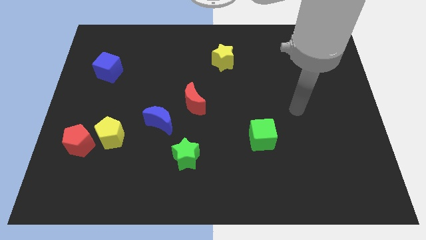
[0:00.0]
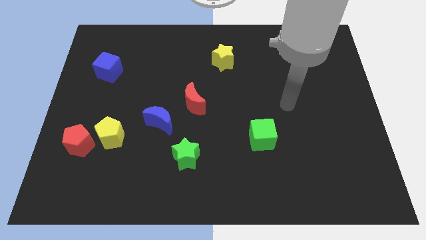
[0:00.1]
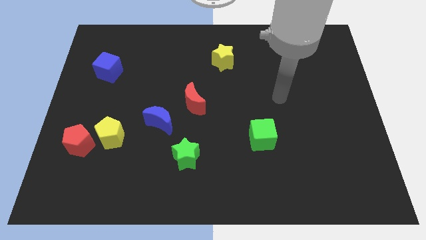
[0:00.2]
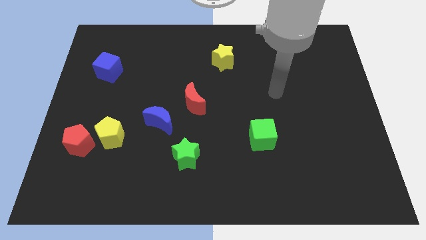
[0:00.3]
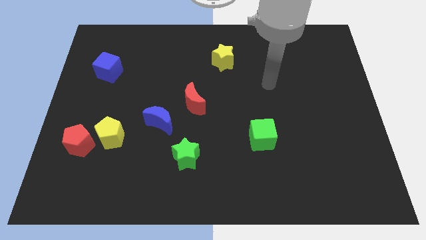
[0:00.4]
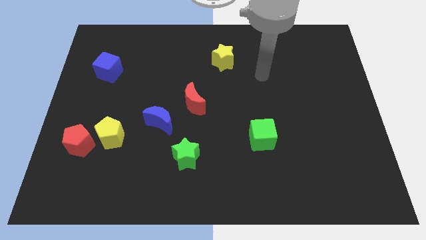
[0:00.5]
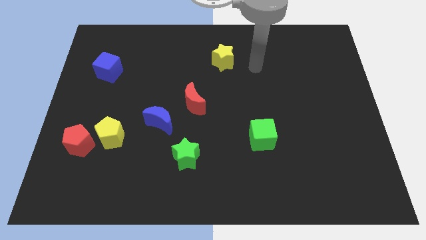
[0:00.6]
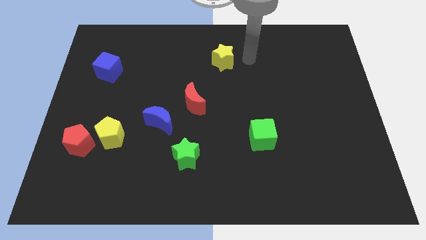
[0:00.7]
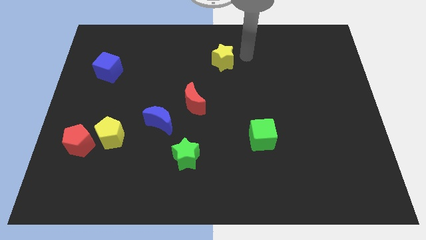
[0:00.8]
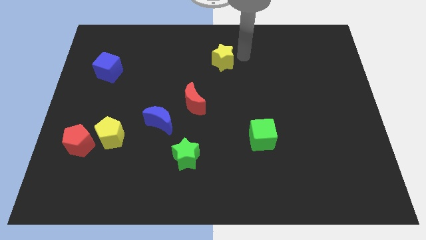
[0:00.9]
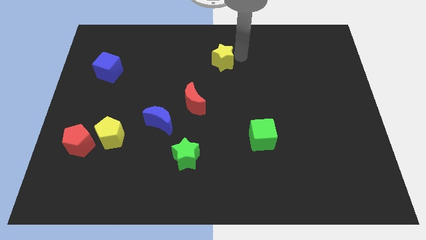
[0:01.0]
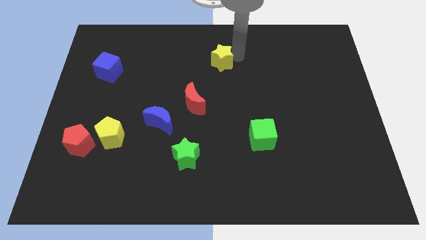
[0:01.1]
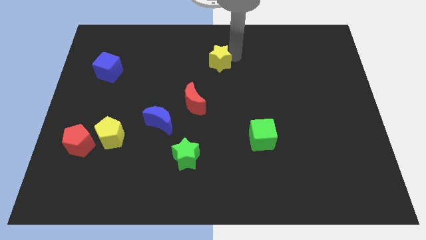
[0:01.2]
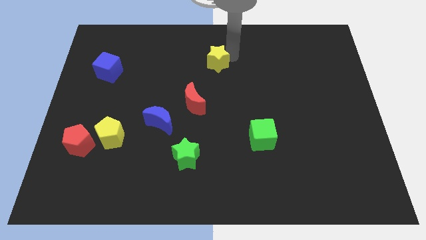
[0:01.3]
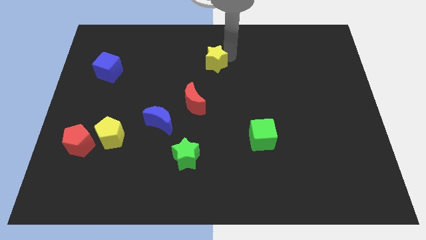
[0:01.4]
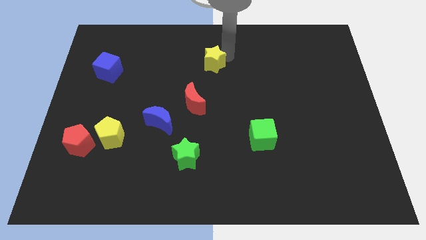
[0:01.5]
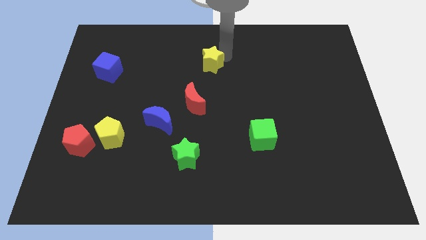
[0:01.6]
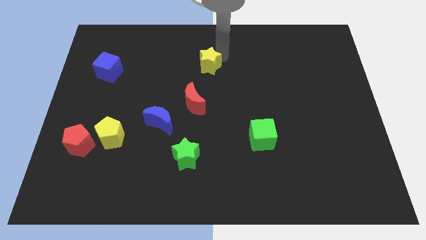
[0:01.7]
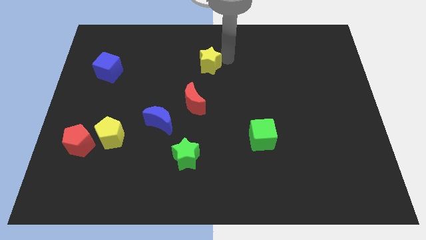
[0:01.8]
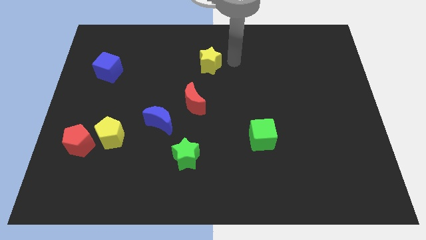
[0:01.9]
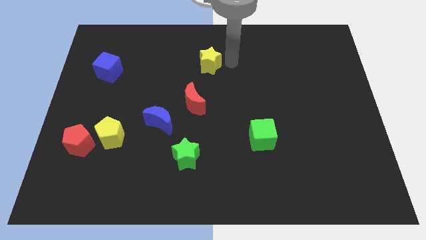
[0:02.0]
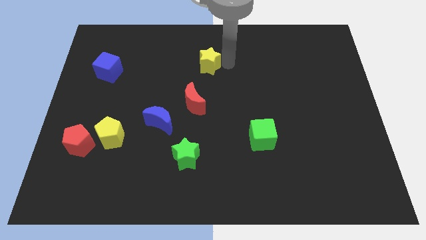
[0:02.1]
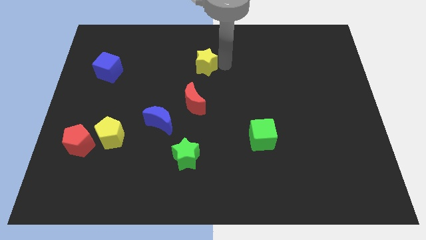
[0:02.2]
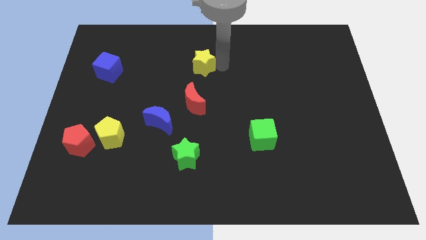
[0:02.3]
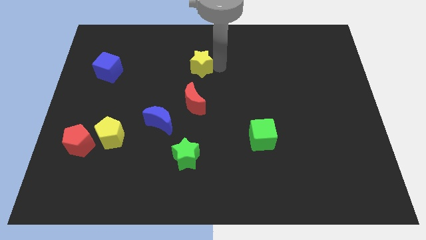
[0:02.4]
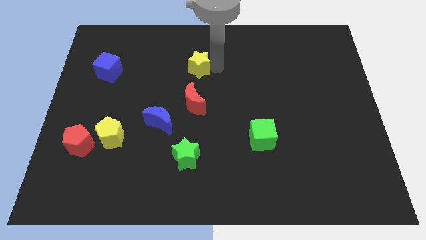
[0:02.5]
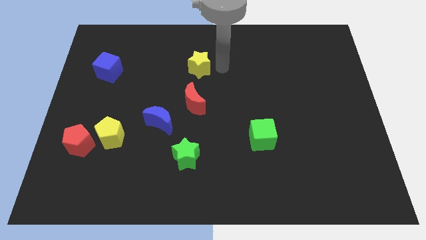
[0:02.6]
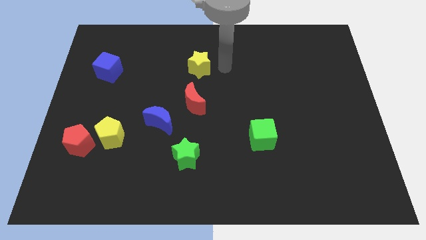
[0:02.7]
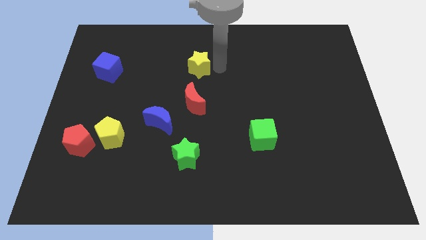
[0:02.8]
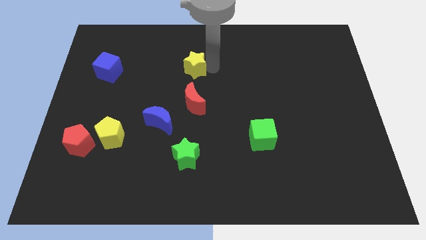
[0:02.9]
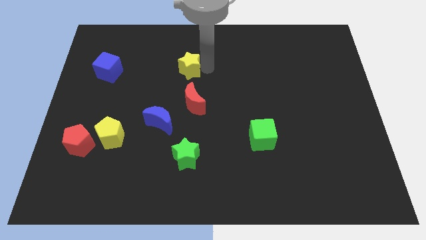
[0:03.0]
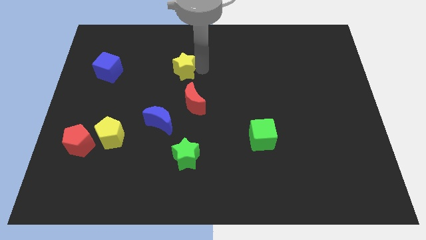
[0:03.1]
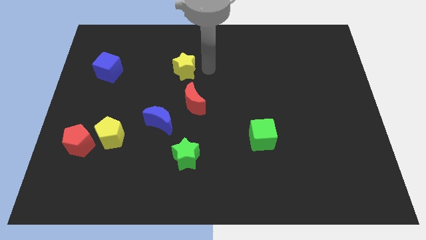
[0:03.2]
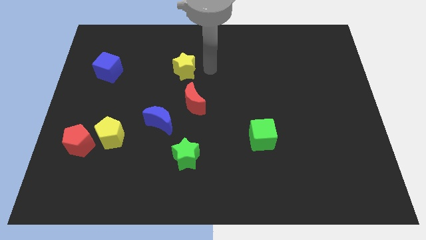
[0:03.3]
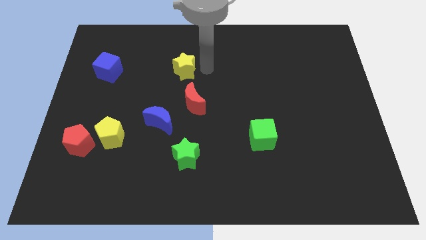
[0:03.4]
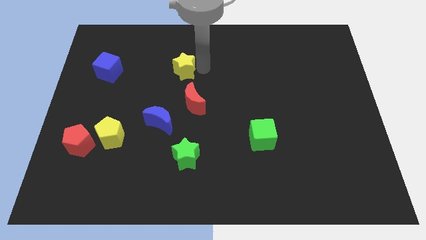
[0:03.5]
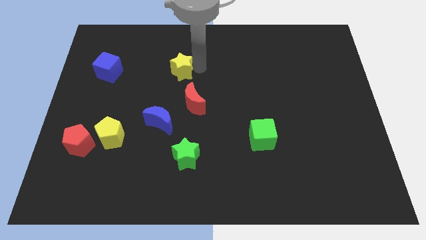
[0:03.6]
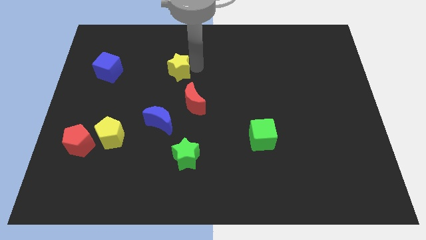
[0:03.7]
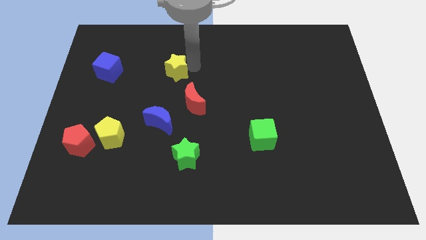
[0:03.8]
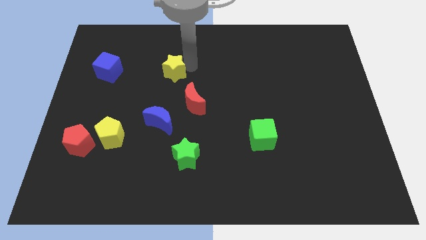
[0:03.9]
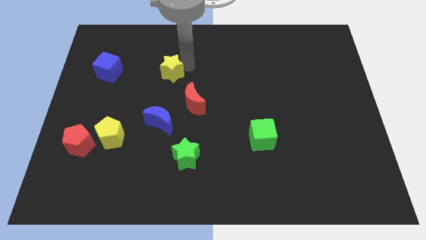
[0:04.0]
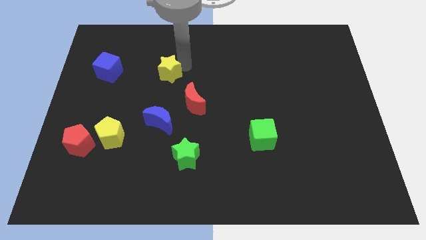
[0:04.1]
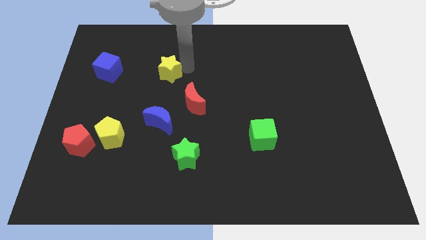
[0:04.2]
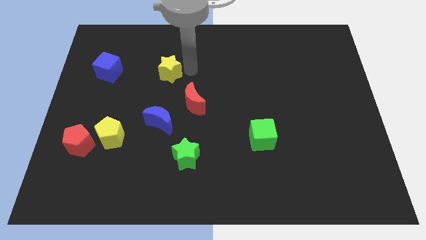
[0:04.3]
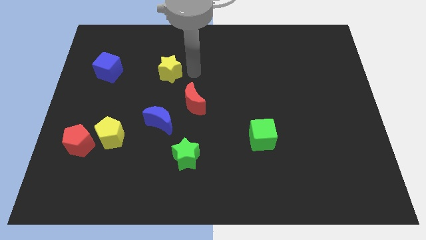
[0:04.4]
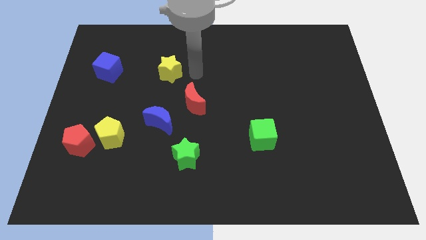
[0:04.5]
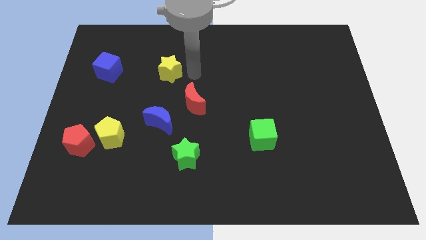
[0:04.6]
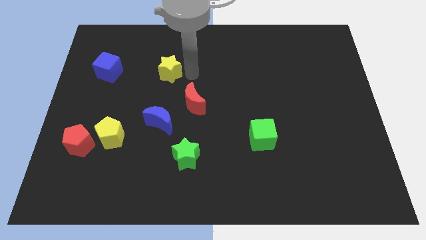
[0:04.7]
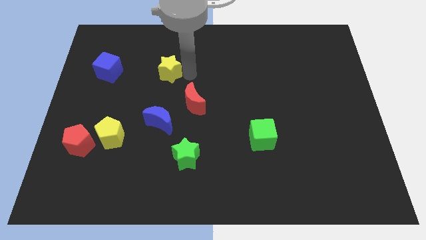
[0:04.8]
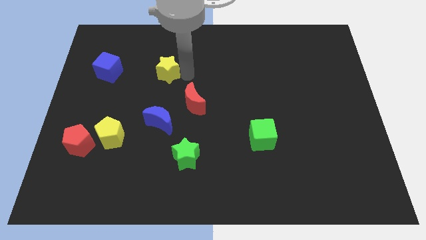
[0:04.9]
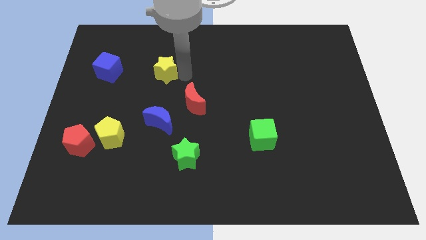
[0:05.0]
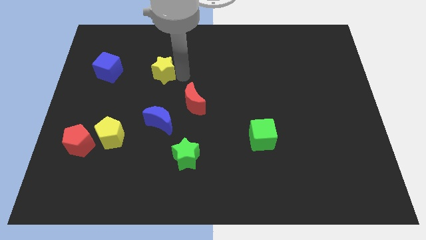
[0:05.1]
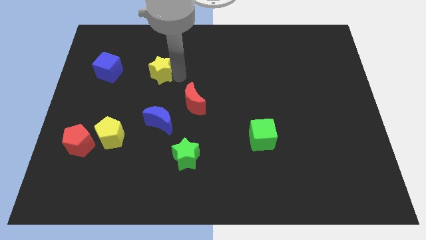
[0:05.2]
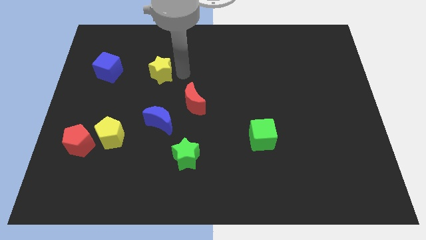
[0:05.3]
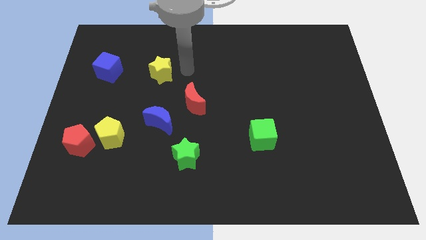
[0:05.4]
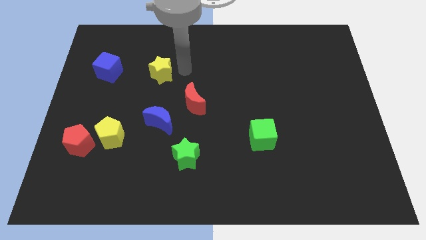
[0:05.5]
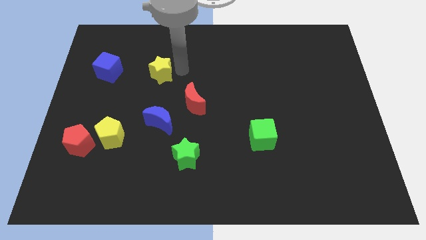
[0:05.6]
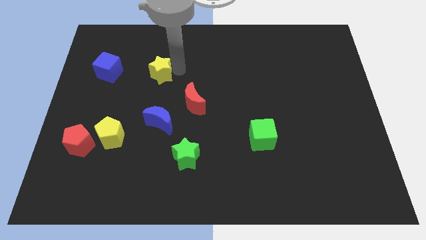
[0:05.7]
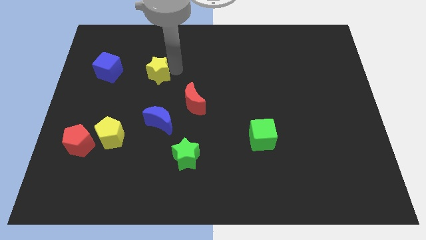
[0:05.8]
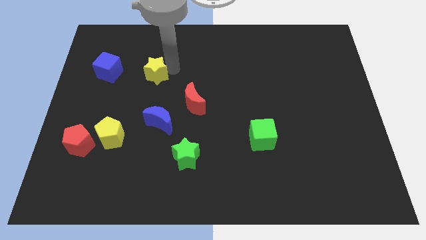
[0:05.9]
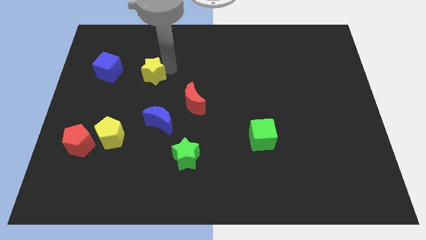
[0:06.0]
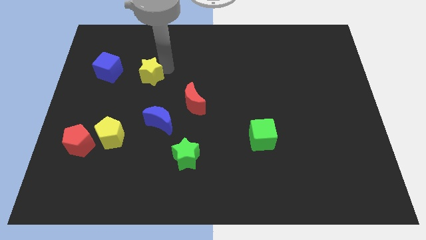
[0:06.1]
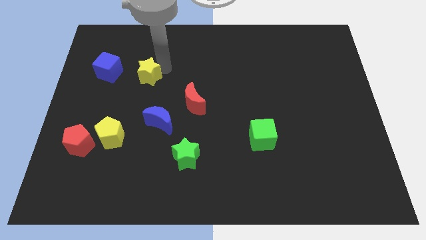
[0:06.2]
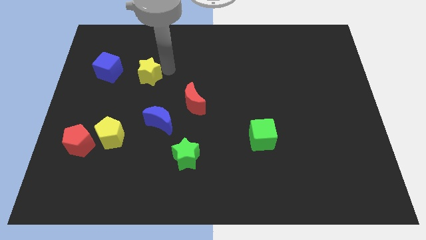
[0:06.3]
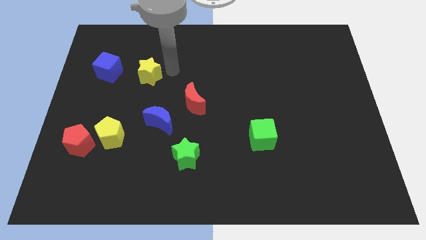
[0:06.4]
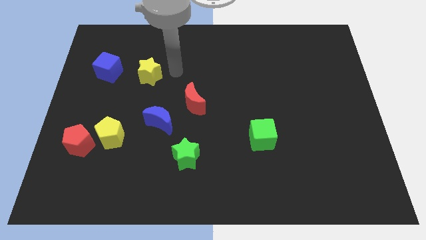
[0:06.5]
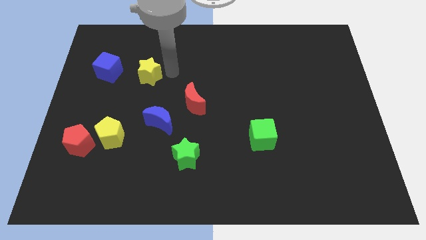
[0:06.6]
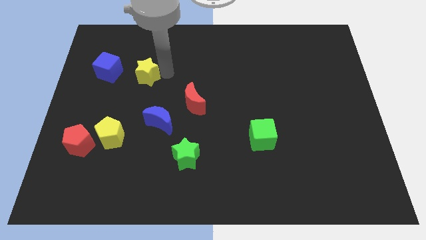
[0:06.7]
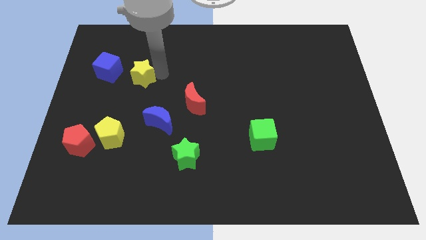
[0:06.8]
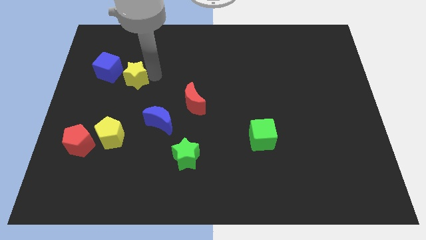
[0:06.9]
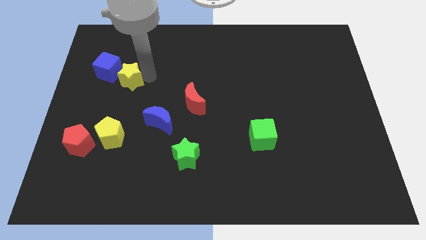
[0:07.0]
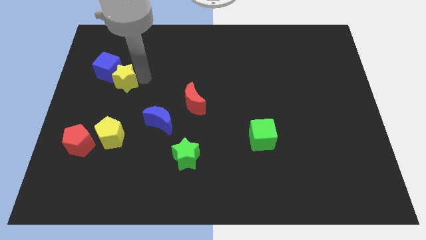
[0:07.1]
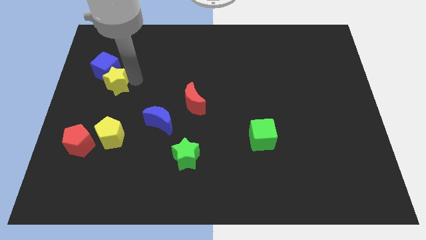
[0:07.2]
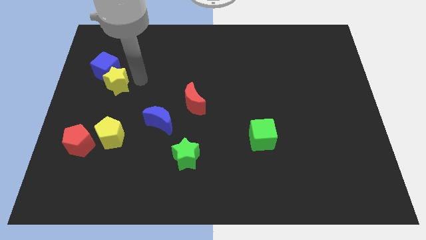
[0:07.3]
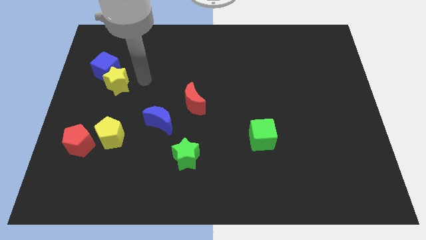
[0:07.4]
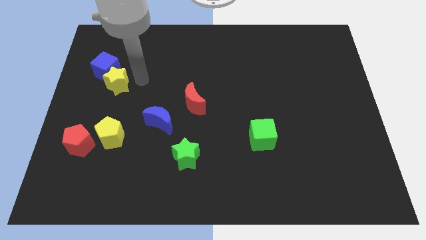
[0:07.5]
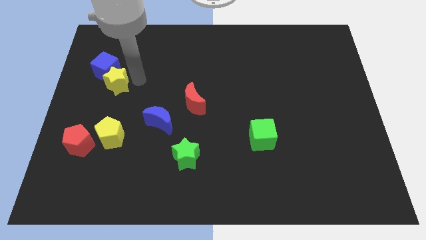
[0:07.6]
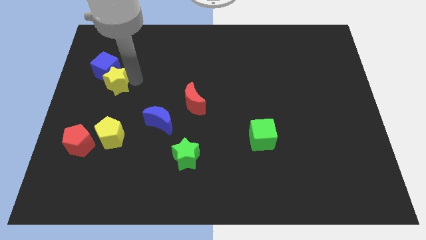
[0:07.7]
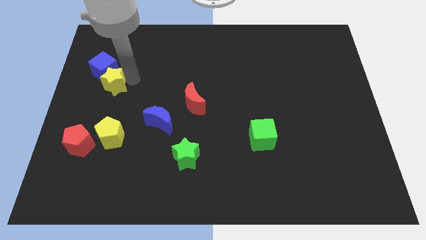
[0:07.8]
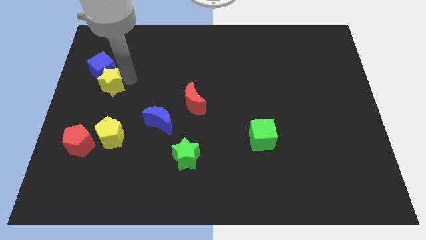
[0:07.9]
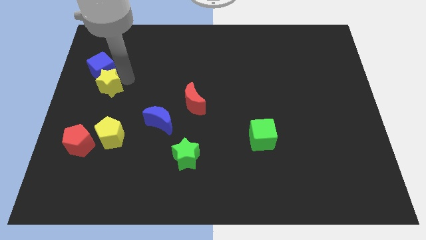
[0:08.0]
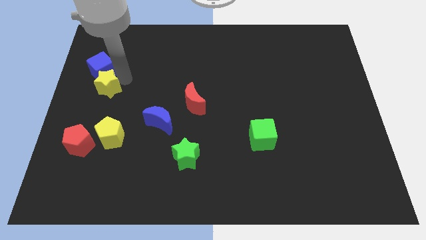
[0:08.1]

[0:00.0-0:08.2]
put the yellow star to the left side
